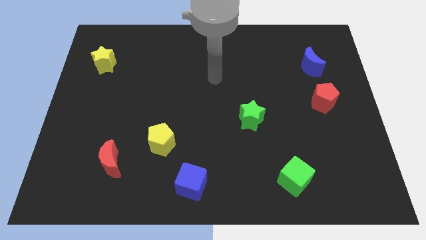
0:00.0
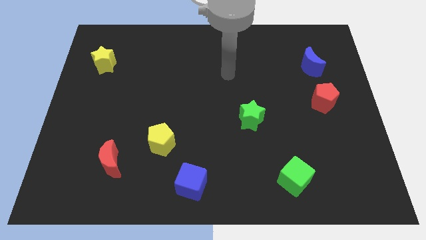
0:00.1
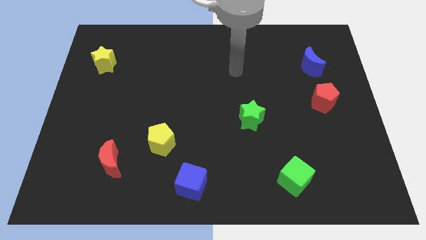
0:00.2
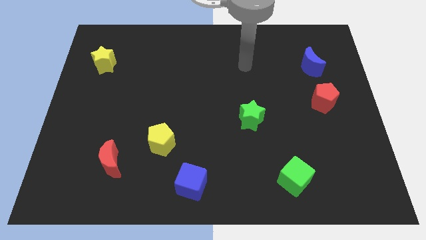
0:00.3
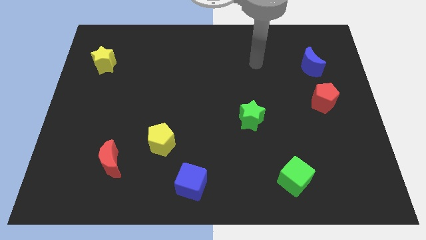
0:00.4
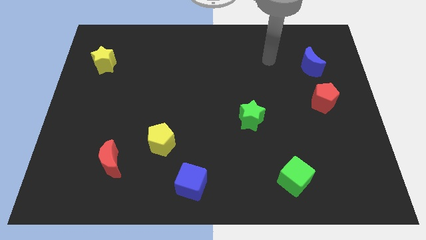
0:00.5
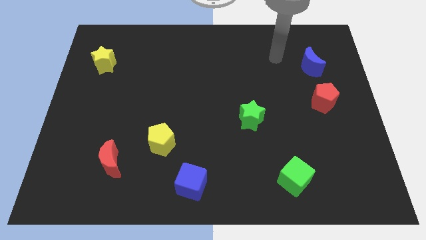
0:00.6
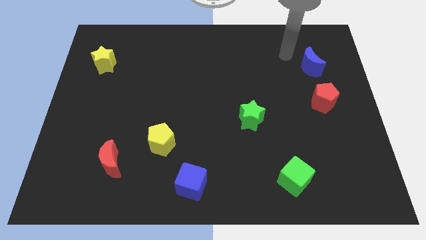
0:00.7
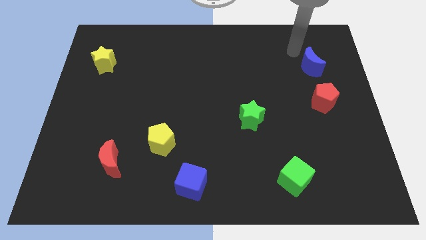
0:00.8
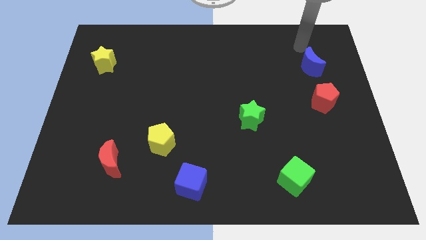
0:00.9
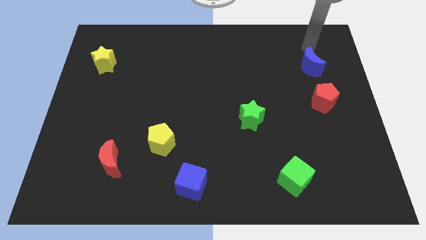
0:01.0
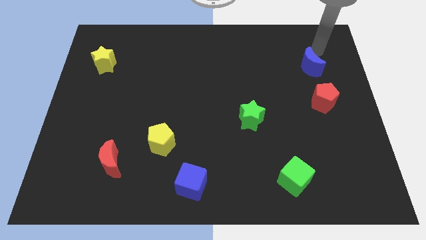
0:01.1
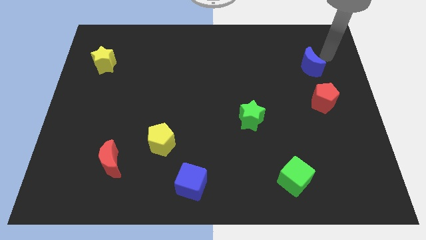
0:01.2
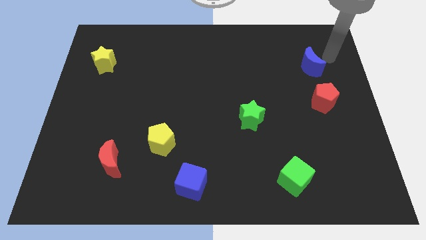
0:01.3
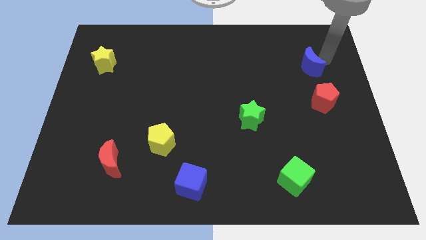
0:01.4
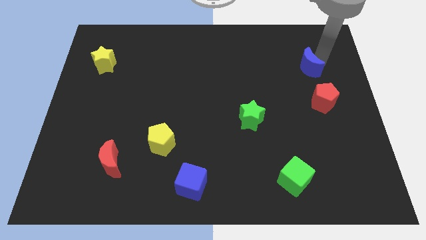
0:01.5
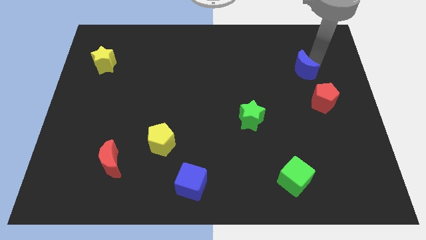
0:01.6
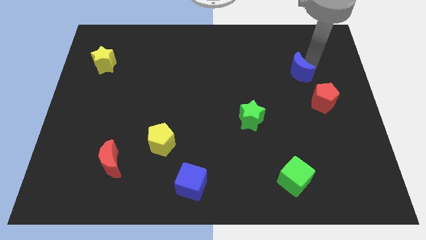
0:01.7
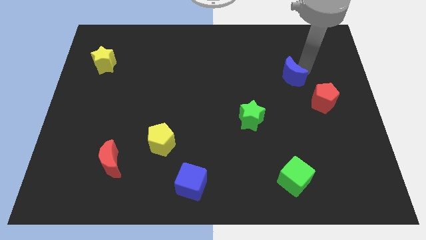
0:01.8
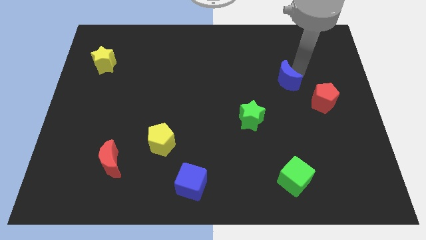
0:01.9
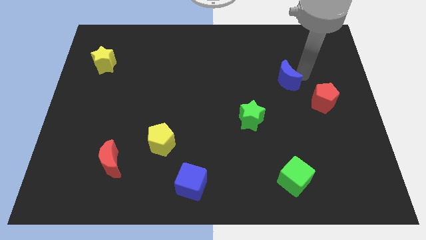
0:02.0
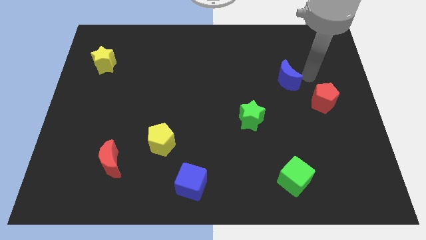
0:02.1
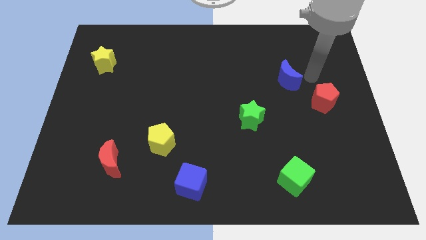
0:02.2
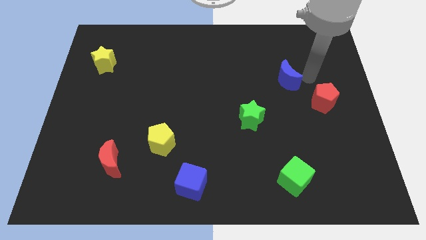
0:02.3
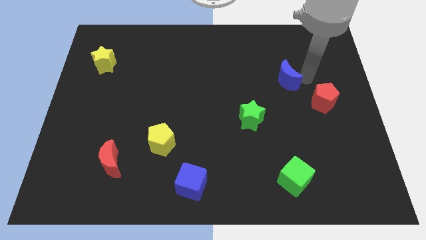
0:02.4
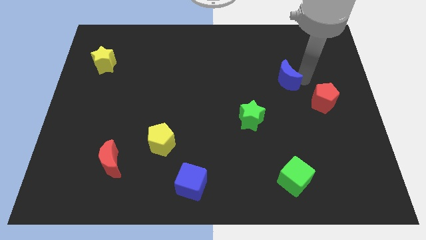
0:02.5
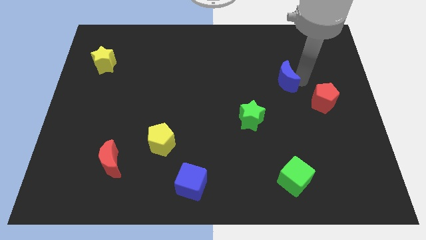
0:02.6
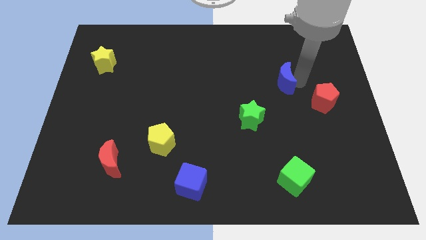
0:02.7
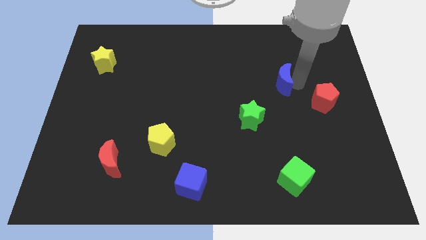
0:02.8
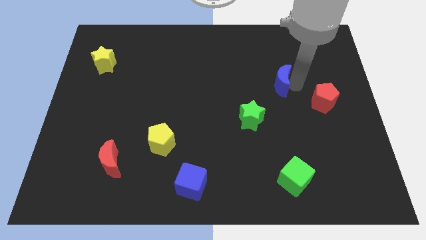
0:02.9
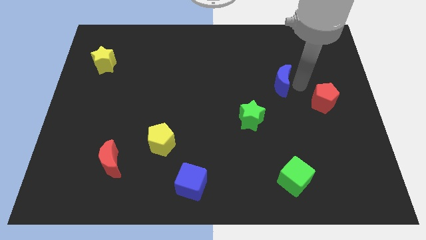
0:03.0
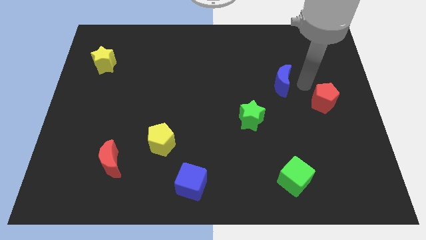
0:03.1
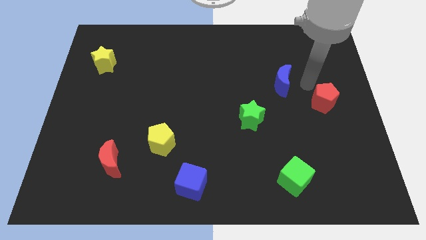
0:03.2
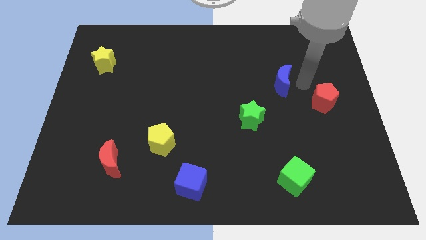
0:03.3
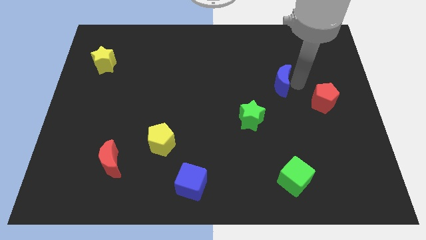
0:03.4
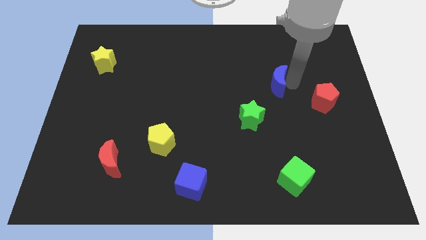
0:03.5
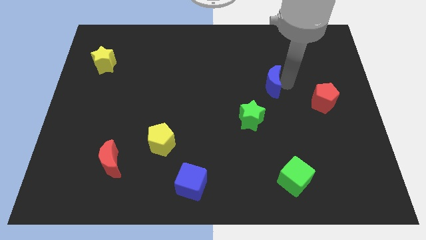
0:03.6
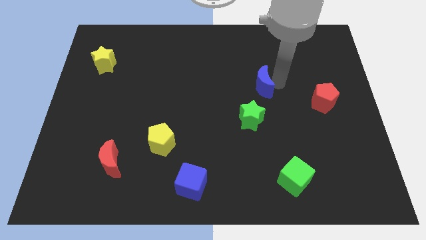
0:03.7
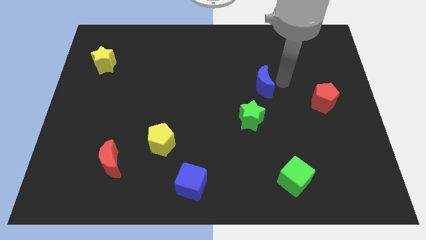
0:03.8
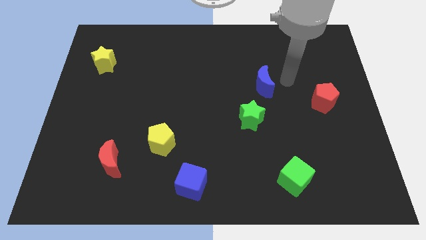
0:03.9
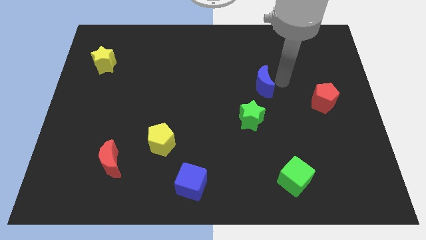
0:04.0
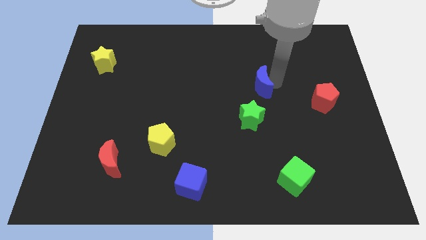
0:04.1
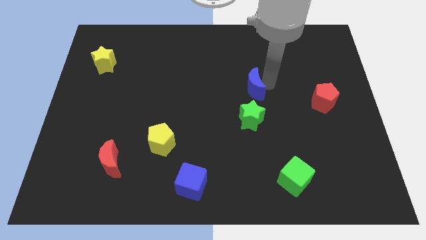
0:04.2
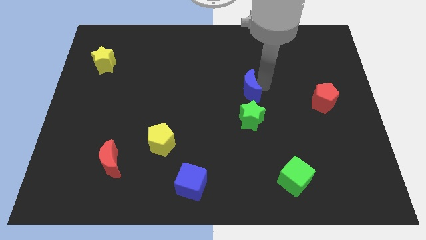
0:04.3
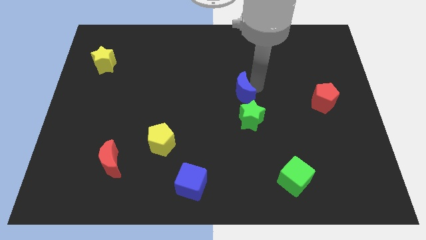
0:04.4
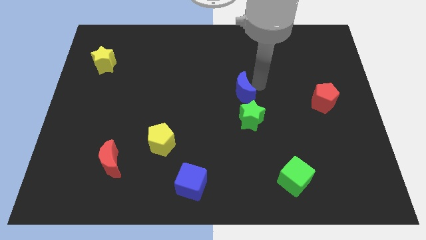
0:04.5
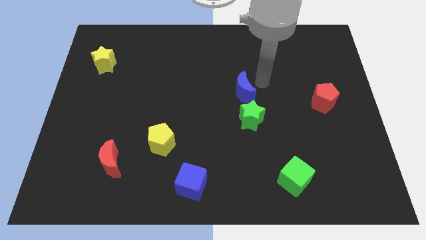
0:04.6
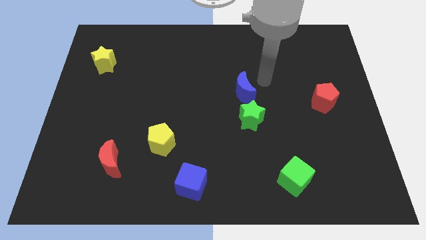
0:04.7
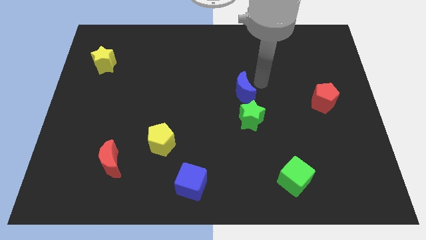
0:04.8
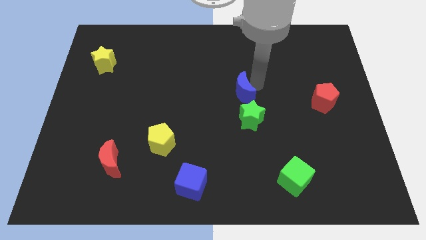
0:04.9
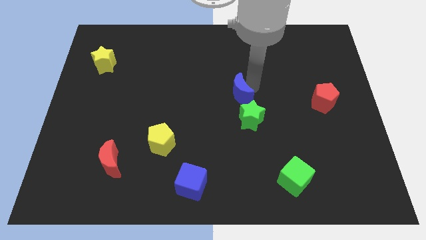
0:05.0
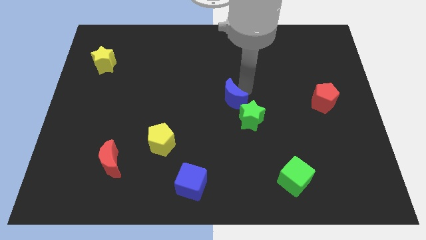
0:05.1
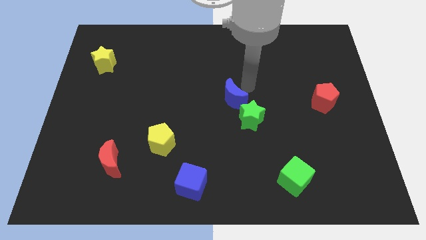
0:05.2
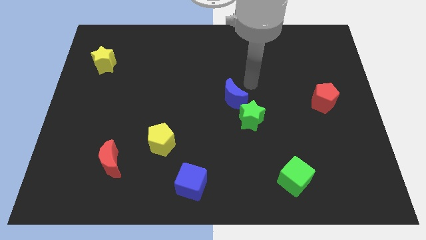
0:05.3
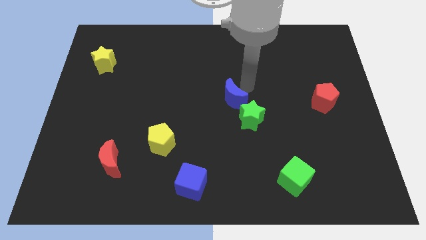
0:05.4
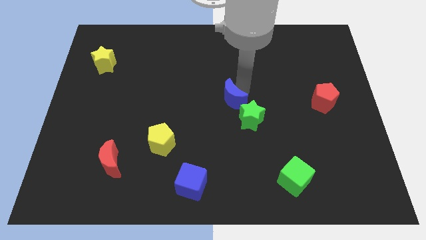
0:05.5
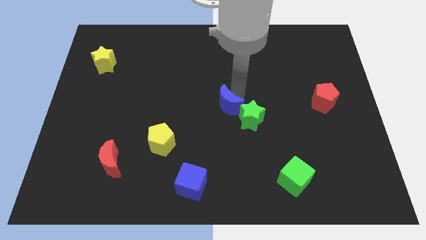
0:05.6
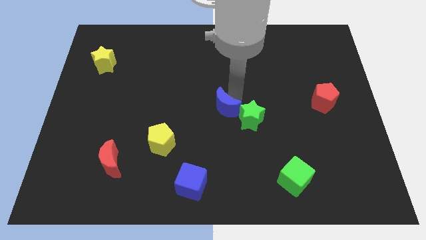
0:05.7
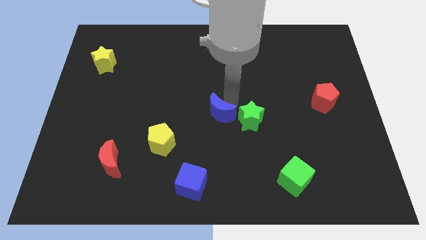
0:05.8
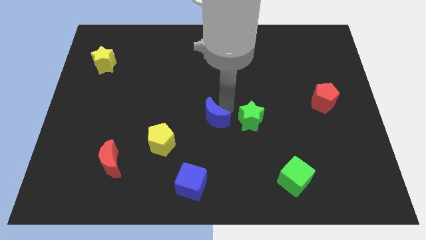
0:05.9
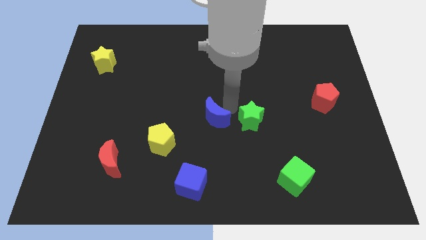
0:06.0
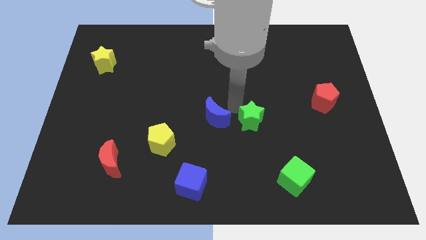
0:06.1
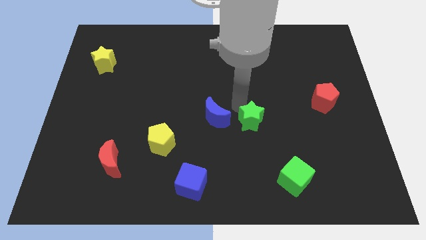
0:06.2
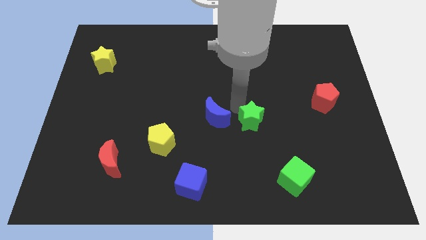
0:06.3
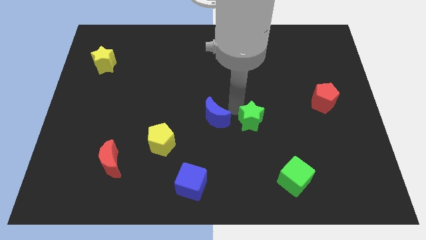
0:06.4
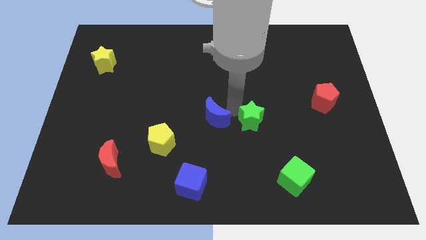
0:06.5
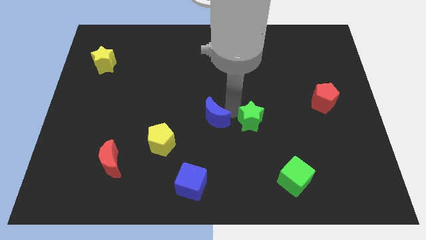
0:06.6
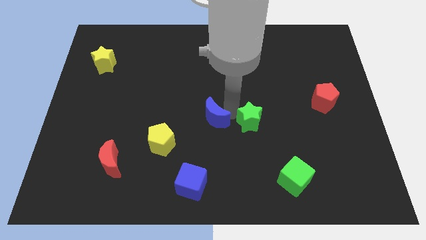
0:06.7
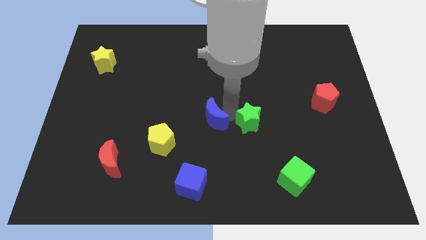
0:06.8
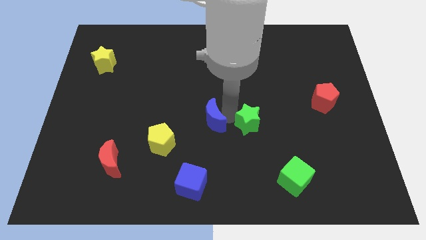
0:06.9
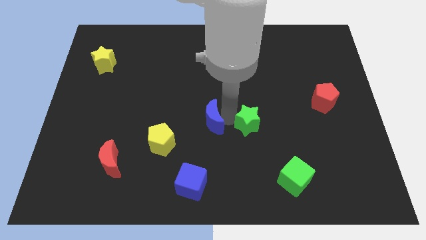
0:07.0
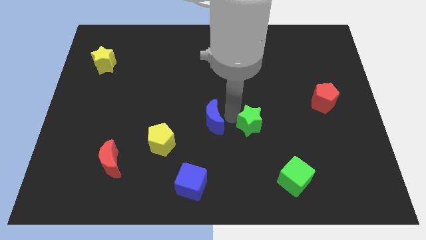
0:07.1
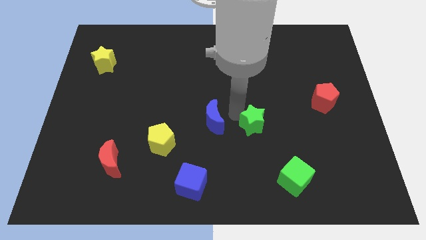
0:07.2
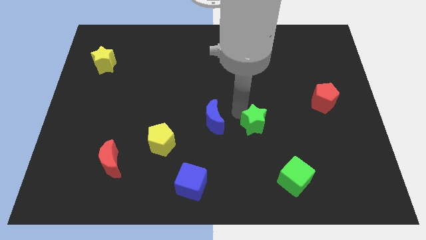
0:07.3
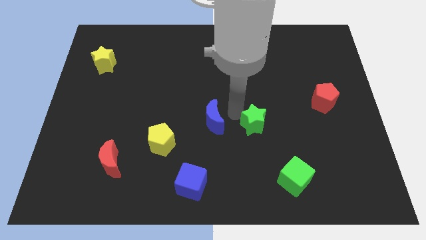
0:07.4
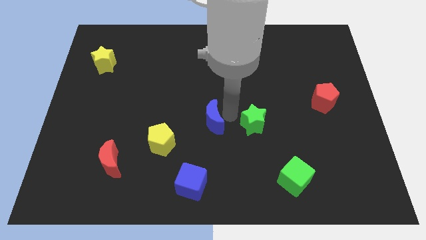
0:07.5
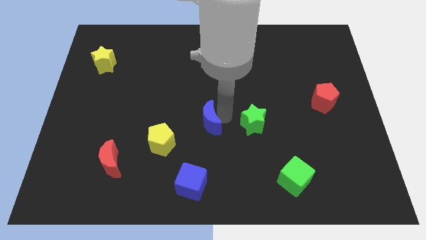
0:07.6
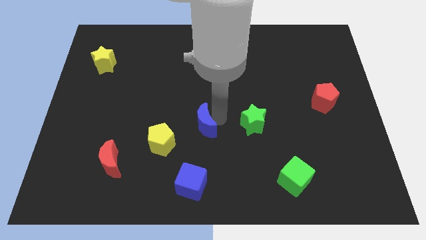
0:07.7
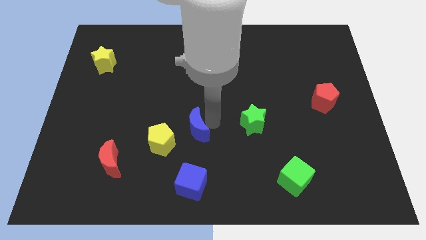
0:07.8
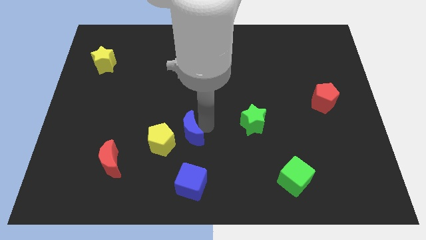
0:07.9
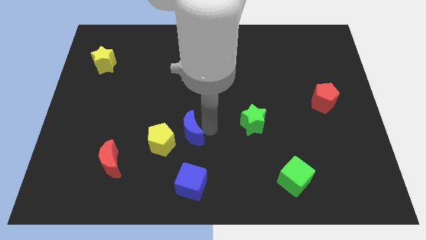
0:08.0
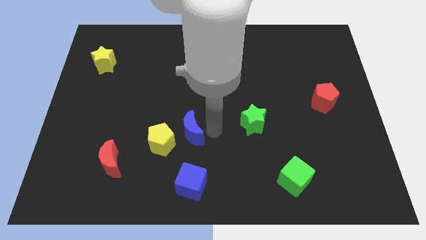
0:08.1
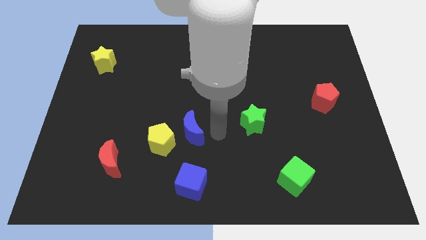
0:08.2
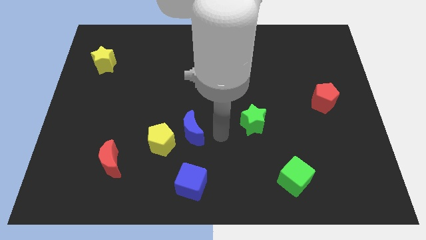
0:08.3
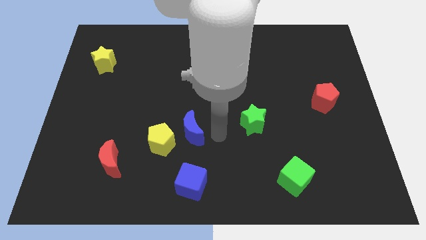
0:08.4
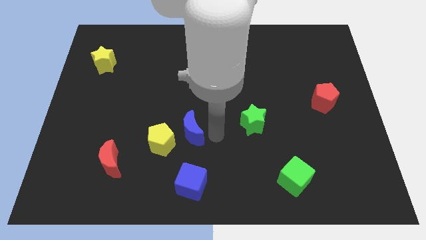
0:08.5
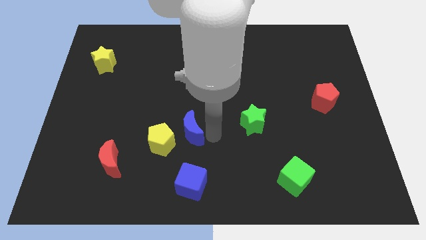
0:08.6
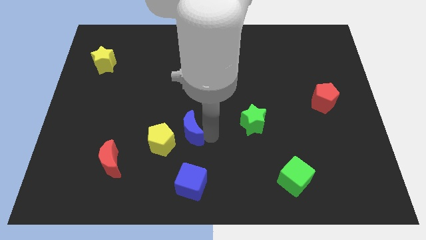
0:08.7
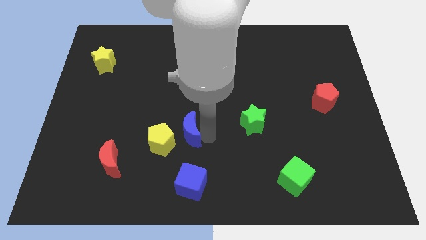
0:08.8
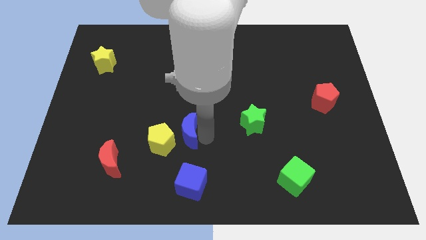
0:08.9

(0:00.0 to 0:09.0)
push the blue moon towards the yellow pentagon
